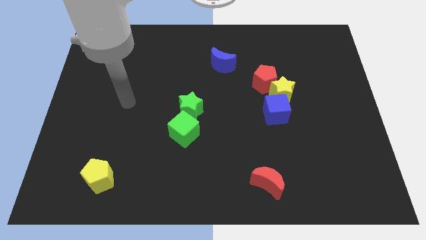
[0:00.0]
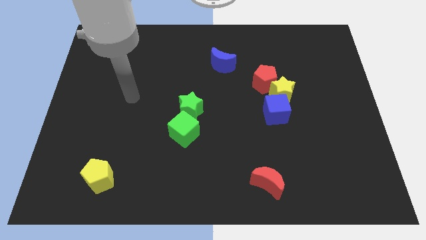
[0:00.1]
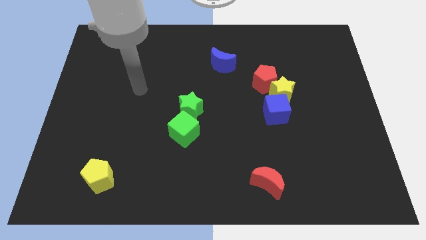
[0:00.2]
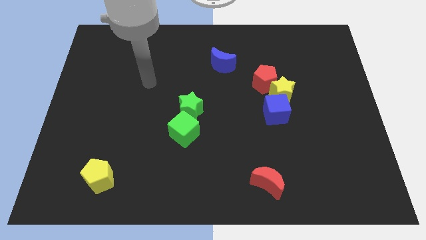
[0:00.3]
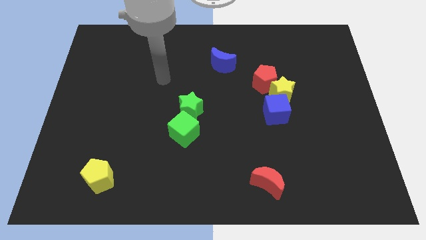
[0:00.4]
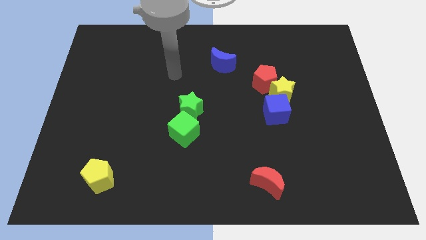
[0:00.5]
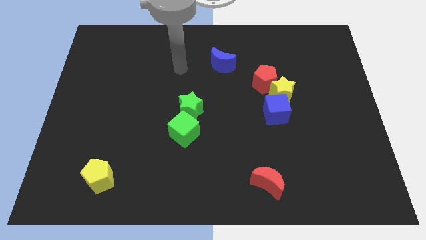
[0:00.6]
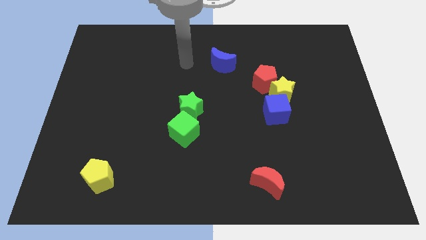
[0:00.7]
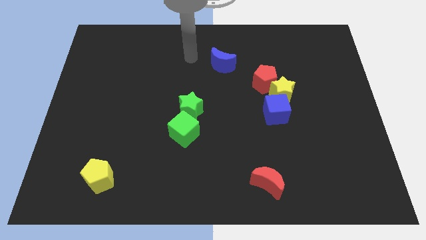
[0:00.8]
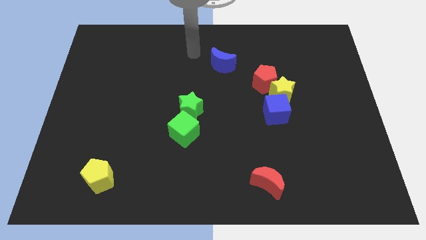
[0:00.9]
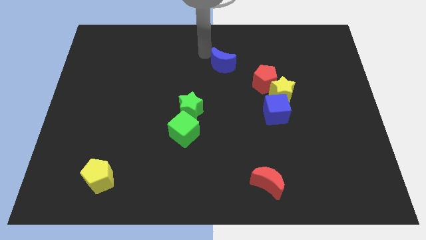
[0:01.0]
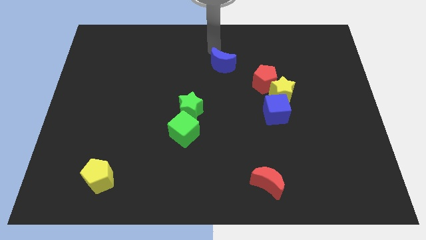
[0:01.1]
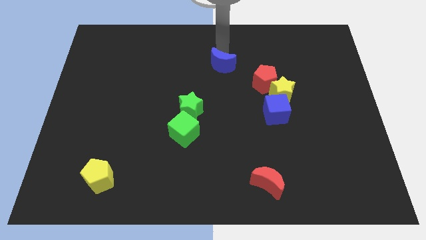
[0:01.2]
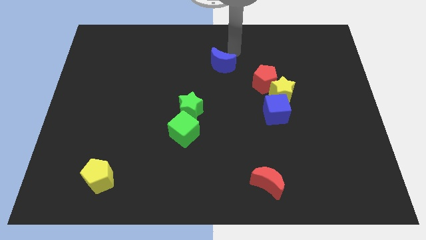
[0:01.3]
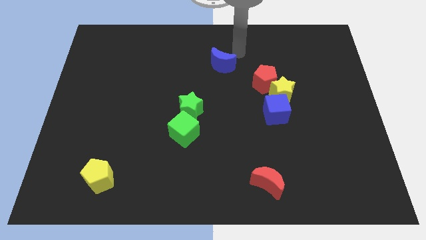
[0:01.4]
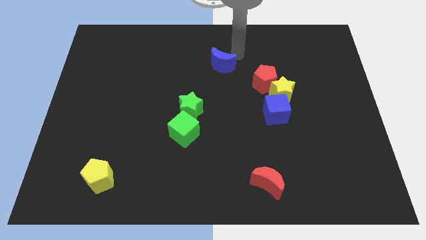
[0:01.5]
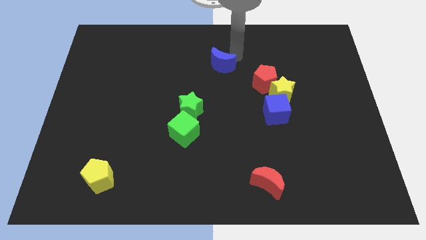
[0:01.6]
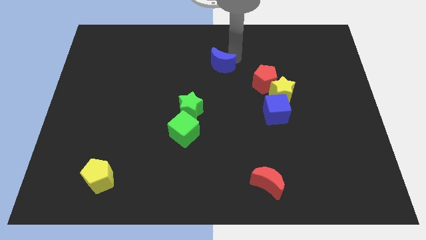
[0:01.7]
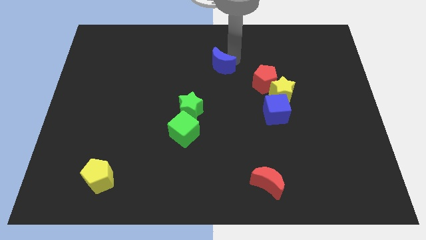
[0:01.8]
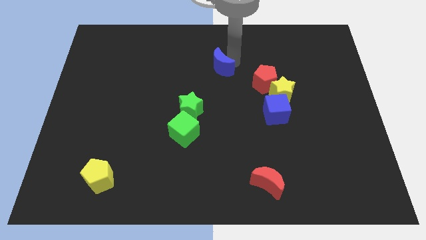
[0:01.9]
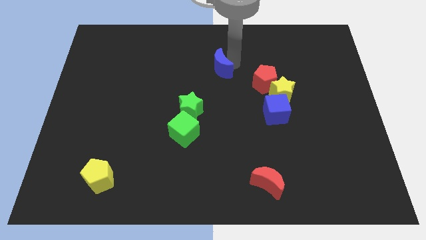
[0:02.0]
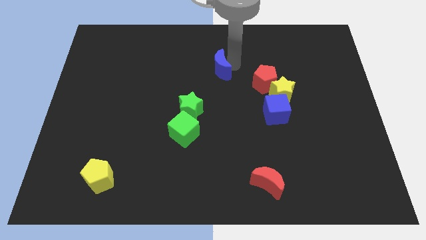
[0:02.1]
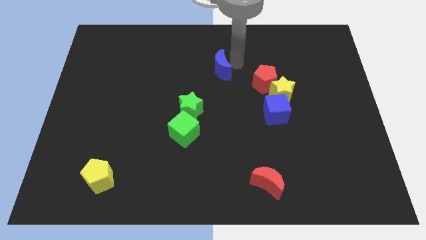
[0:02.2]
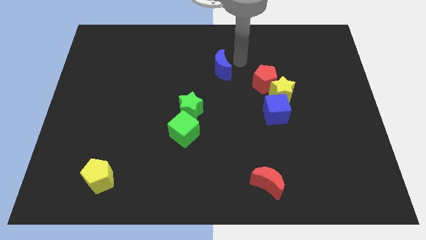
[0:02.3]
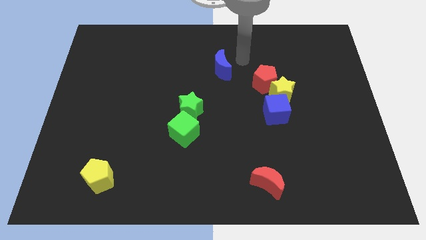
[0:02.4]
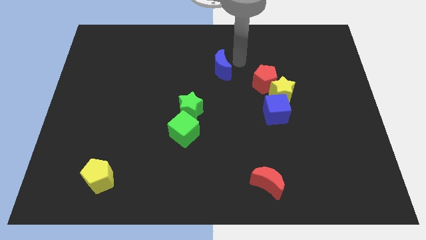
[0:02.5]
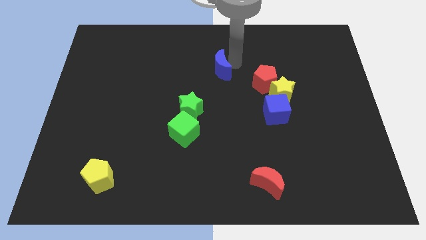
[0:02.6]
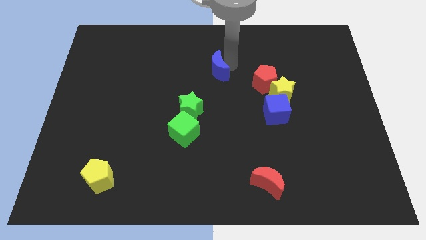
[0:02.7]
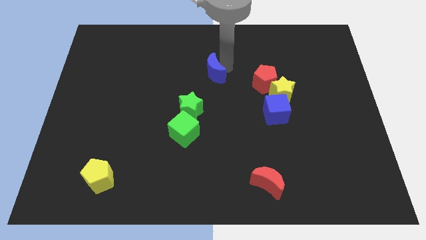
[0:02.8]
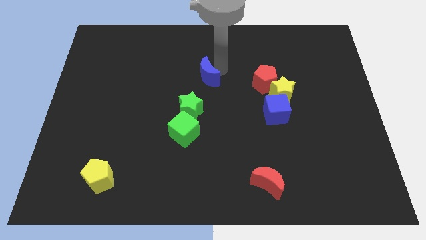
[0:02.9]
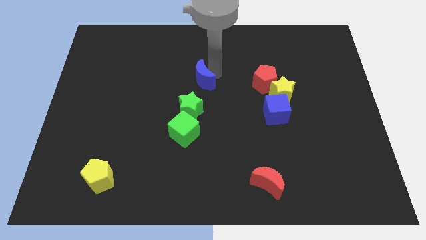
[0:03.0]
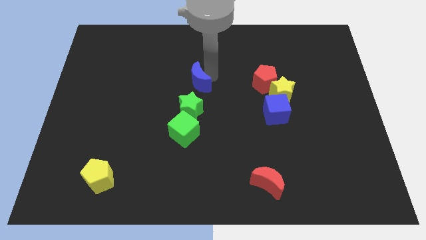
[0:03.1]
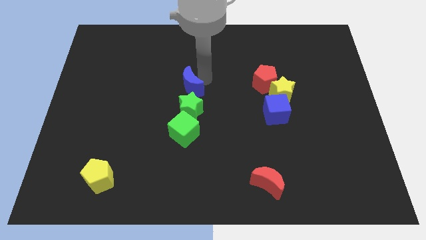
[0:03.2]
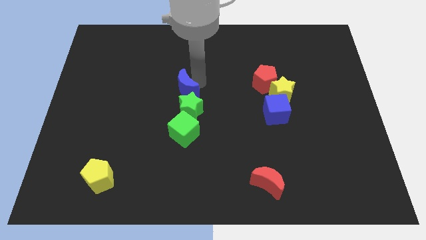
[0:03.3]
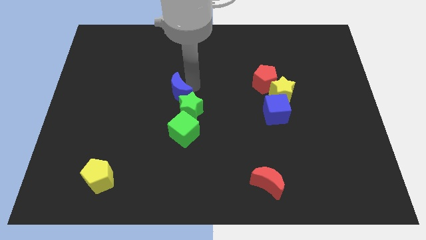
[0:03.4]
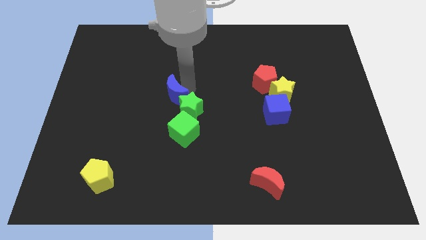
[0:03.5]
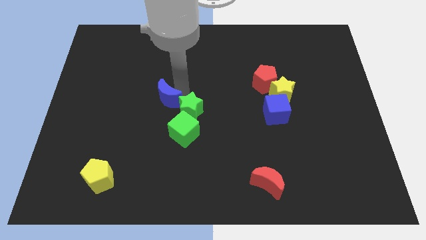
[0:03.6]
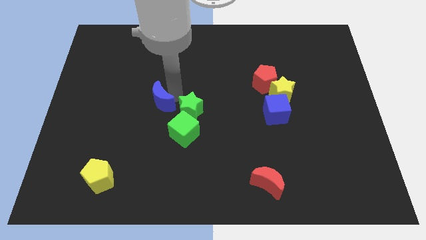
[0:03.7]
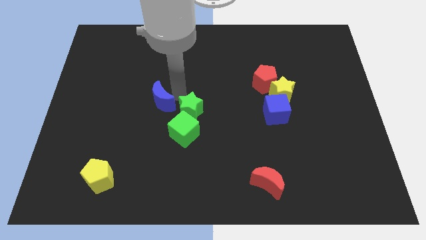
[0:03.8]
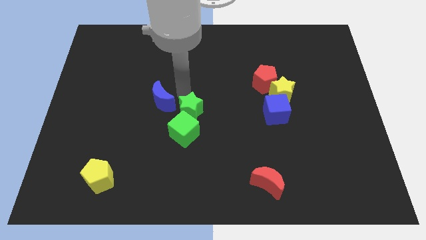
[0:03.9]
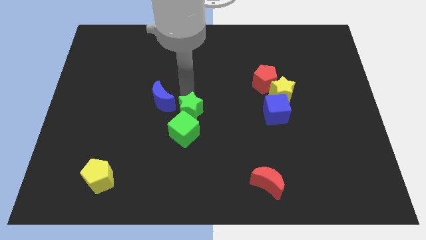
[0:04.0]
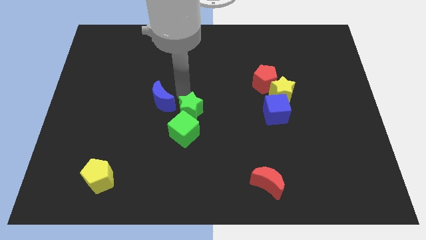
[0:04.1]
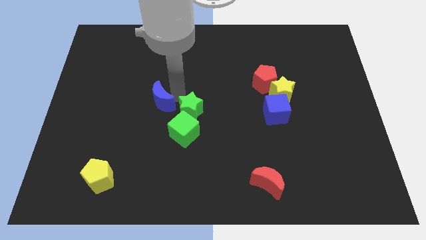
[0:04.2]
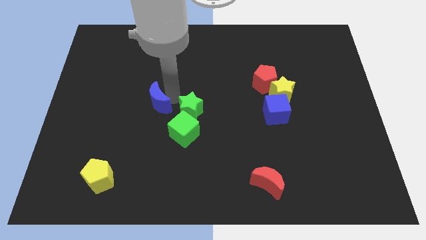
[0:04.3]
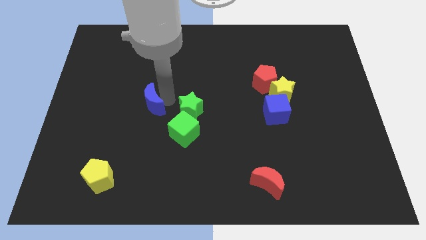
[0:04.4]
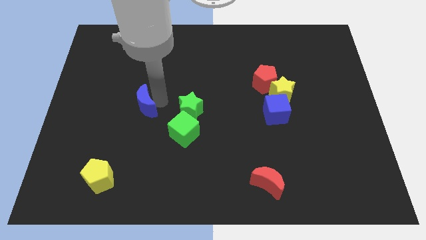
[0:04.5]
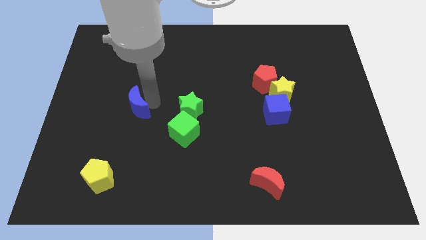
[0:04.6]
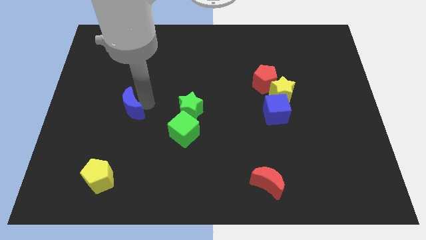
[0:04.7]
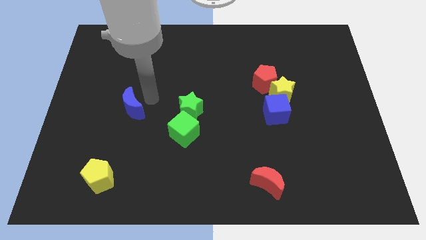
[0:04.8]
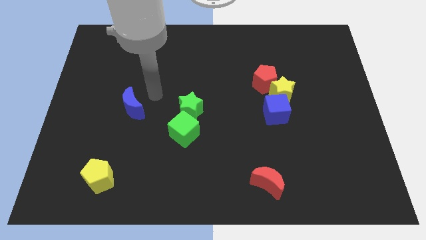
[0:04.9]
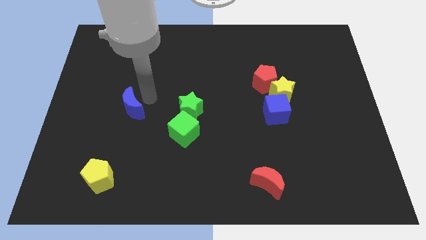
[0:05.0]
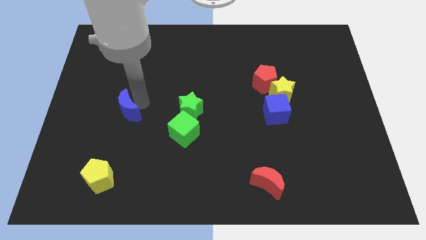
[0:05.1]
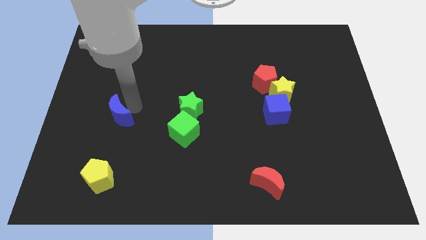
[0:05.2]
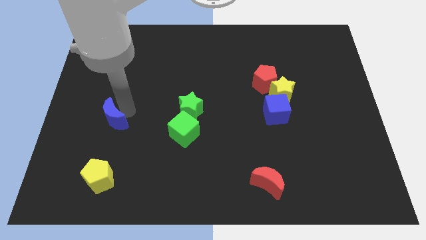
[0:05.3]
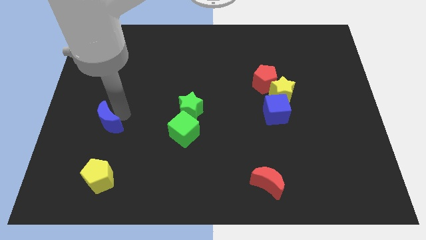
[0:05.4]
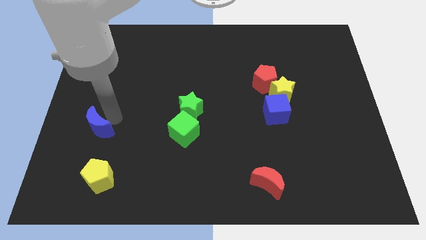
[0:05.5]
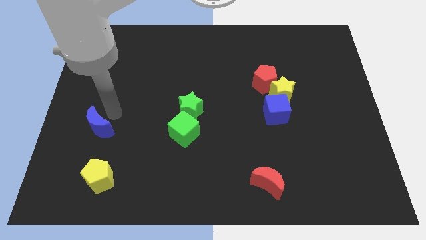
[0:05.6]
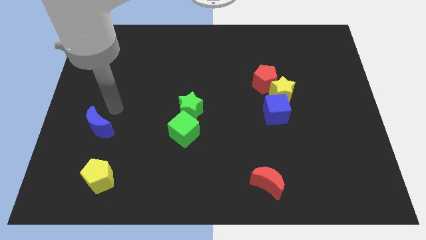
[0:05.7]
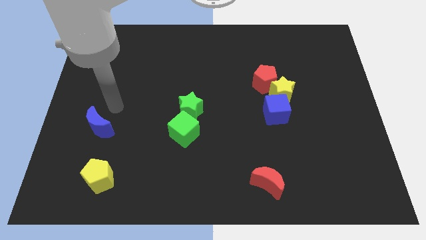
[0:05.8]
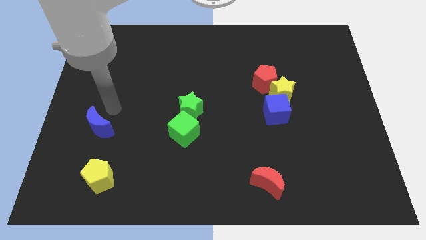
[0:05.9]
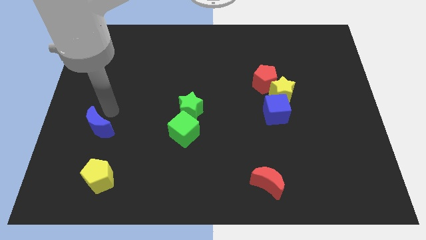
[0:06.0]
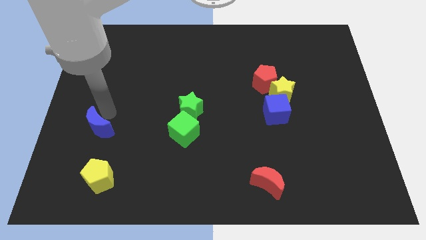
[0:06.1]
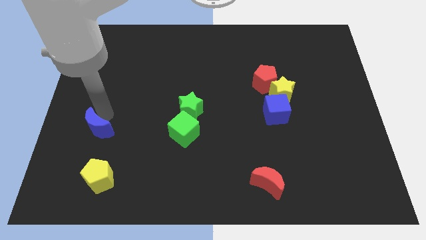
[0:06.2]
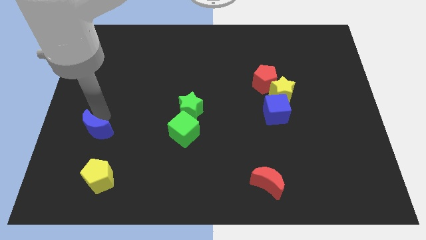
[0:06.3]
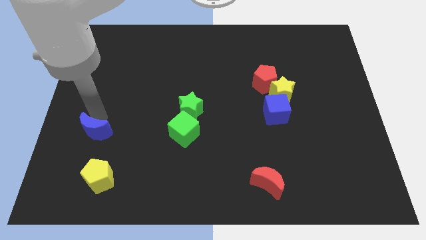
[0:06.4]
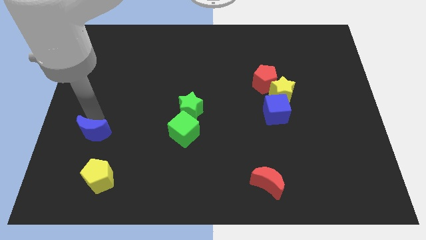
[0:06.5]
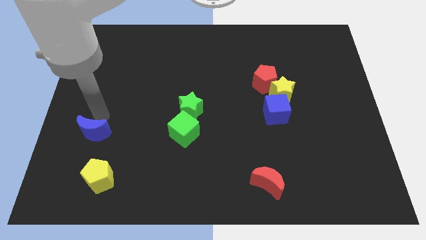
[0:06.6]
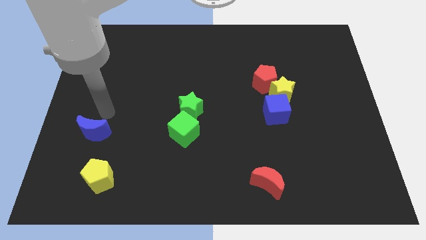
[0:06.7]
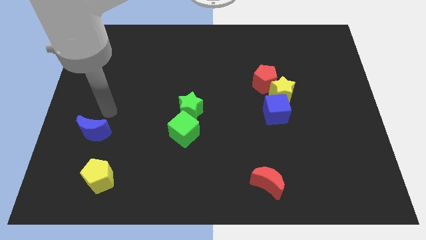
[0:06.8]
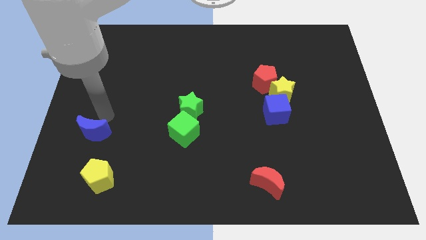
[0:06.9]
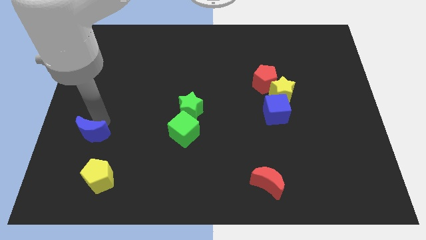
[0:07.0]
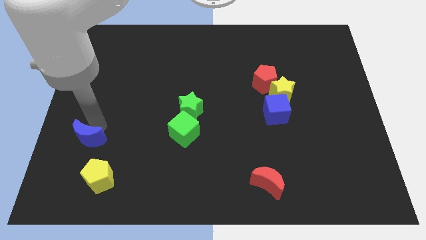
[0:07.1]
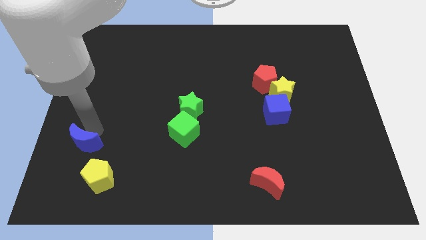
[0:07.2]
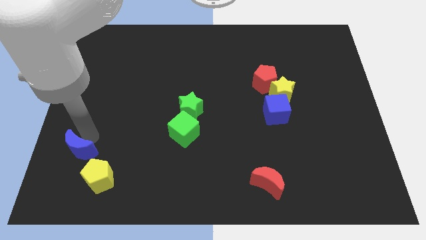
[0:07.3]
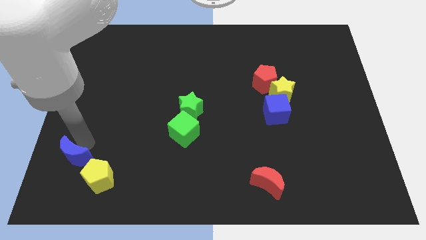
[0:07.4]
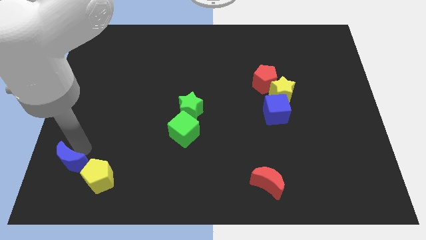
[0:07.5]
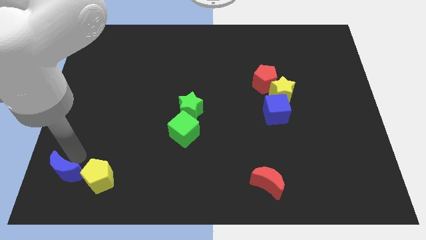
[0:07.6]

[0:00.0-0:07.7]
slide the blue moon to the bottom left corner
